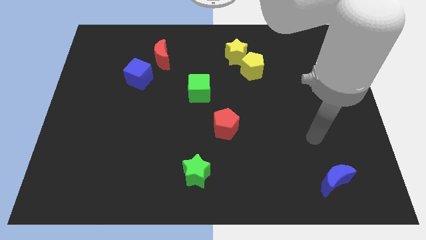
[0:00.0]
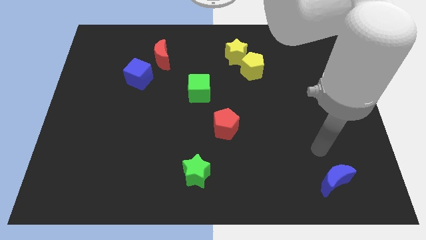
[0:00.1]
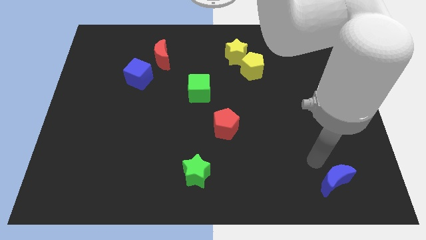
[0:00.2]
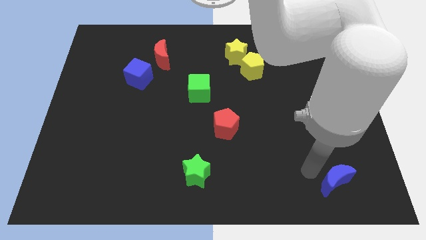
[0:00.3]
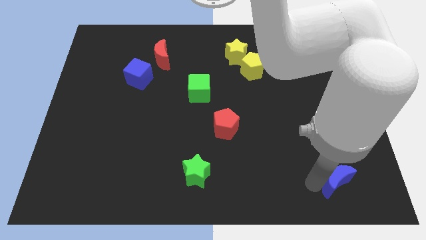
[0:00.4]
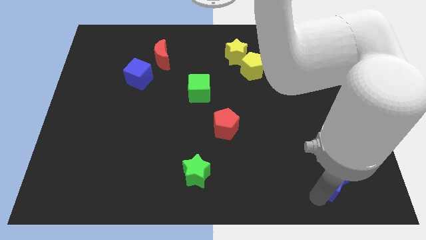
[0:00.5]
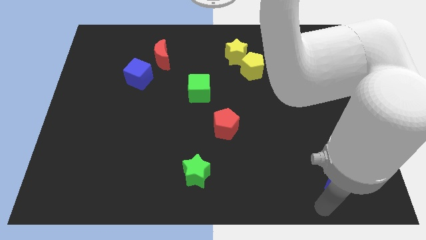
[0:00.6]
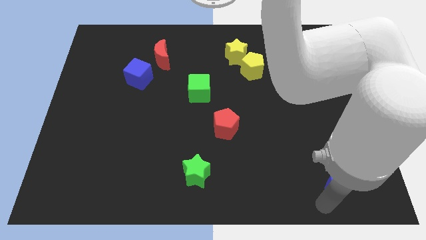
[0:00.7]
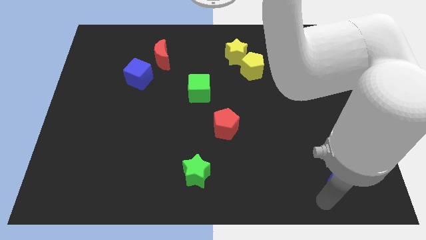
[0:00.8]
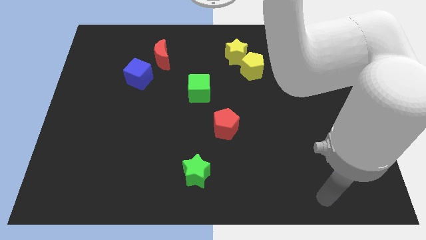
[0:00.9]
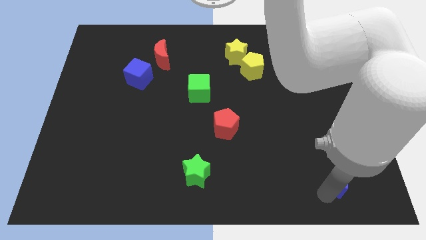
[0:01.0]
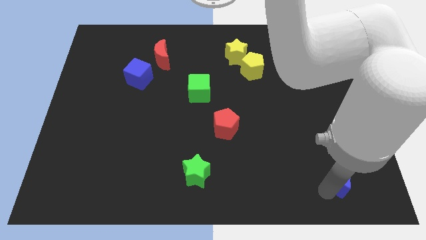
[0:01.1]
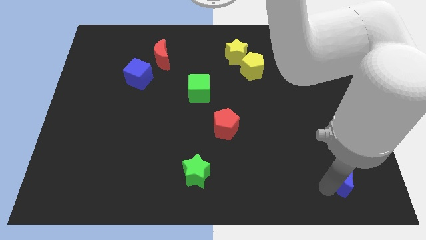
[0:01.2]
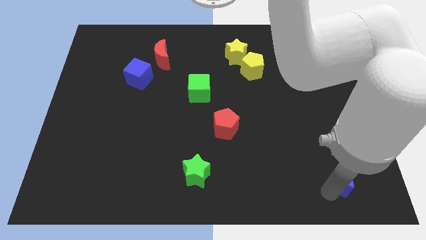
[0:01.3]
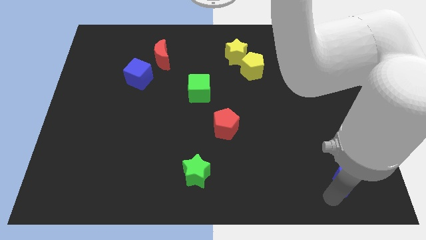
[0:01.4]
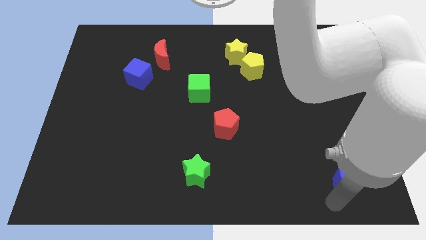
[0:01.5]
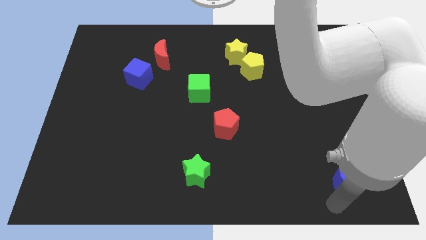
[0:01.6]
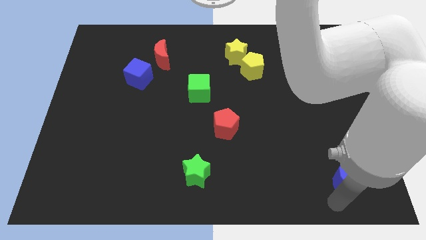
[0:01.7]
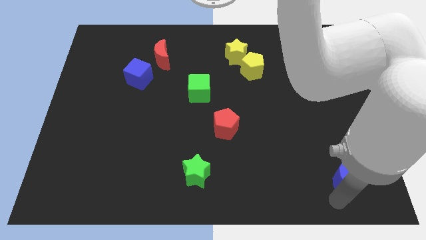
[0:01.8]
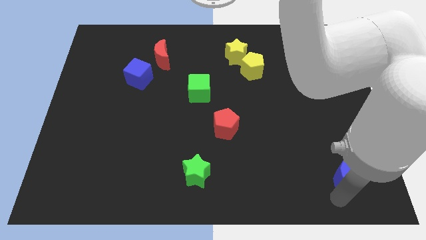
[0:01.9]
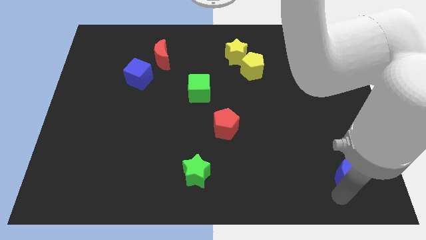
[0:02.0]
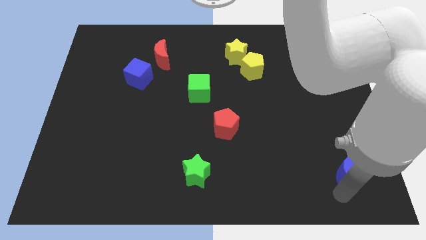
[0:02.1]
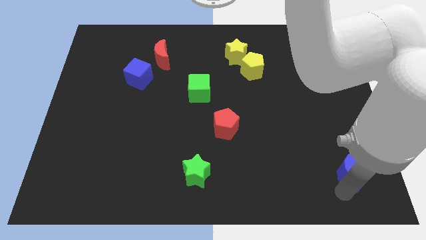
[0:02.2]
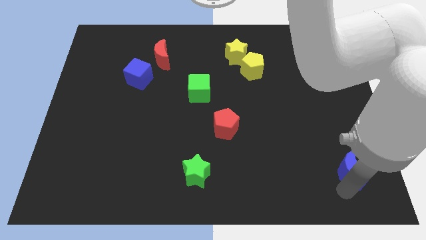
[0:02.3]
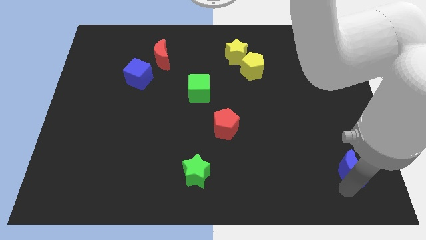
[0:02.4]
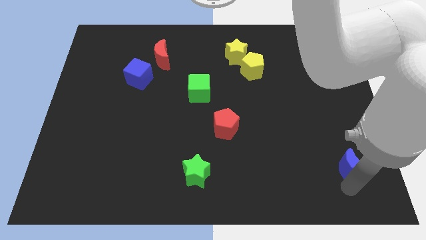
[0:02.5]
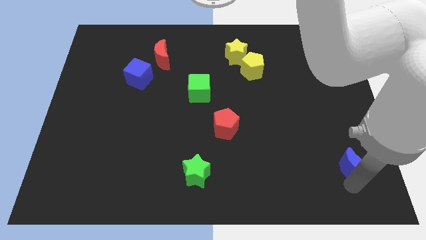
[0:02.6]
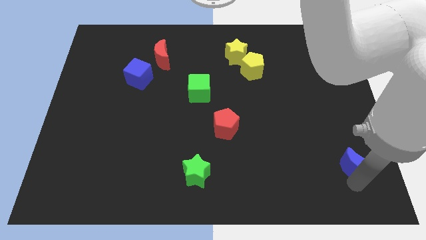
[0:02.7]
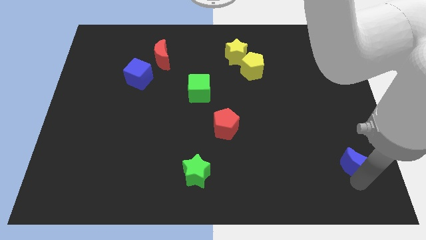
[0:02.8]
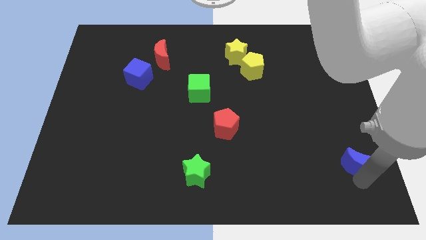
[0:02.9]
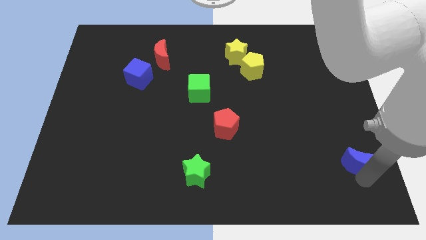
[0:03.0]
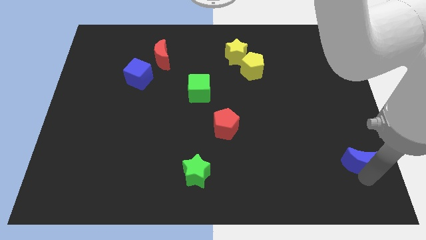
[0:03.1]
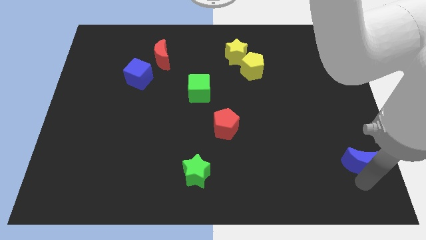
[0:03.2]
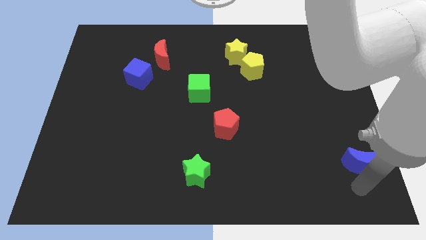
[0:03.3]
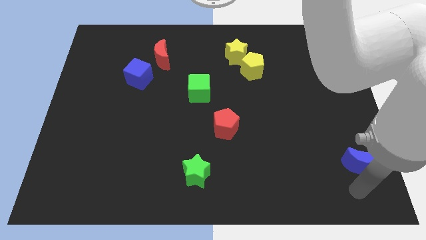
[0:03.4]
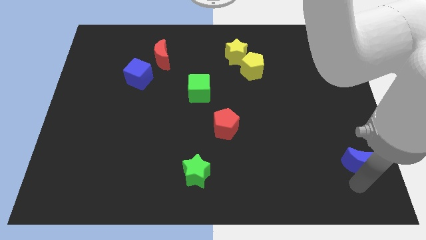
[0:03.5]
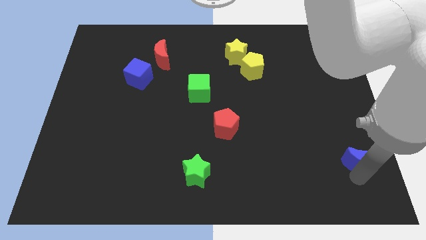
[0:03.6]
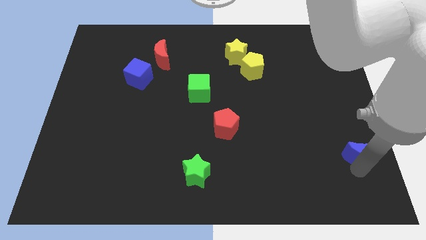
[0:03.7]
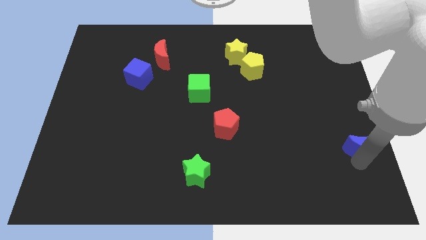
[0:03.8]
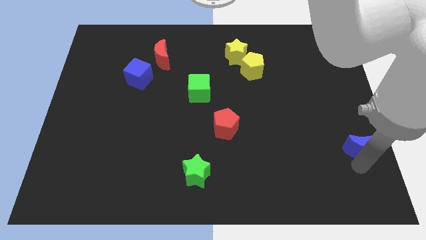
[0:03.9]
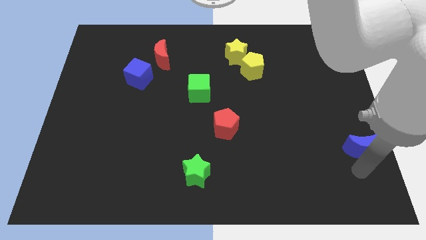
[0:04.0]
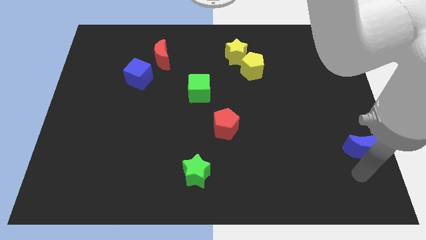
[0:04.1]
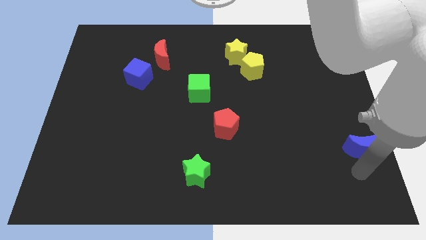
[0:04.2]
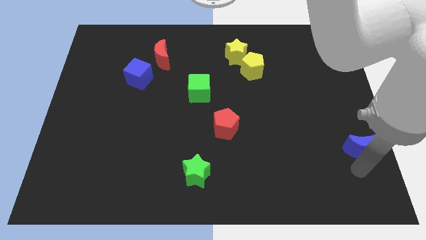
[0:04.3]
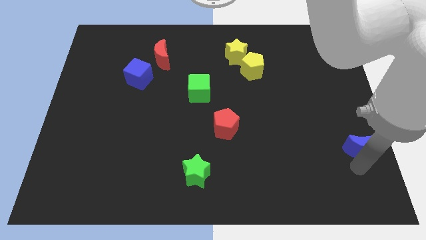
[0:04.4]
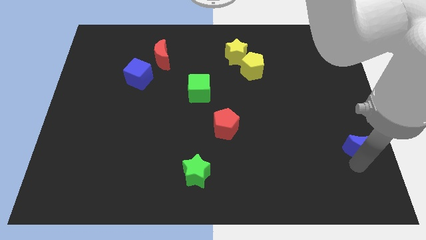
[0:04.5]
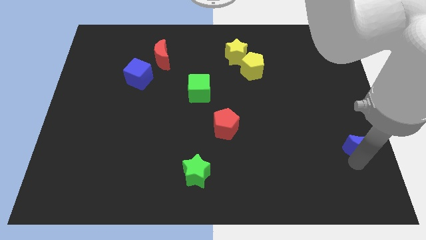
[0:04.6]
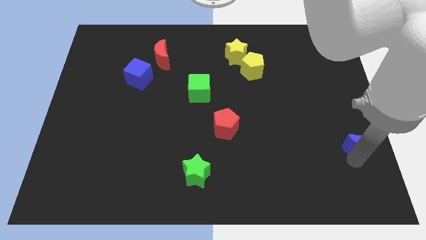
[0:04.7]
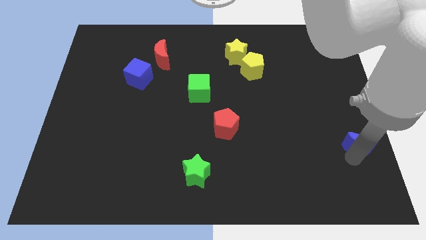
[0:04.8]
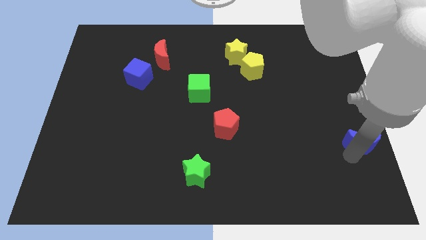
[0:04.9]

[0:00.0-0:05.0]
slide the blue moon to the right side

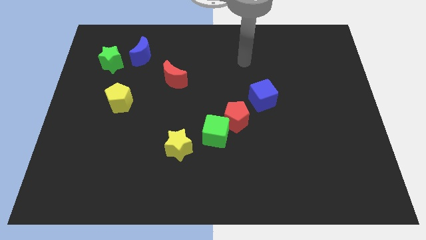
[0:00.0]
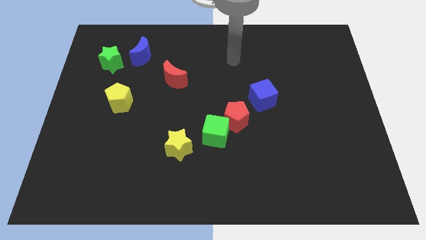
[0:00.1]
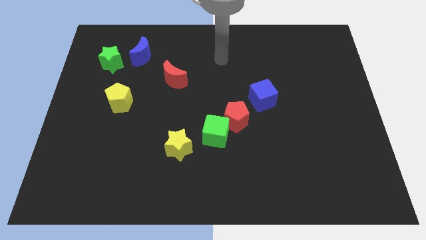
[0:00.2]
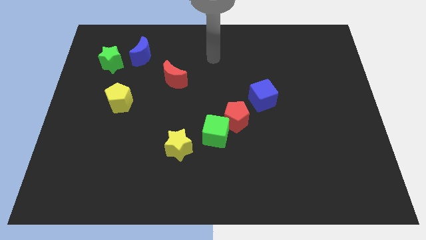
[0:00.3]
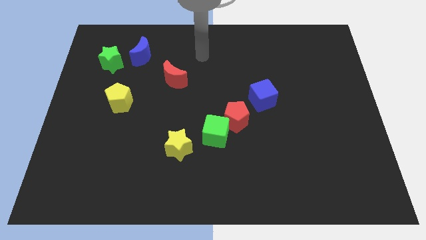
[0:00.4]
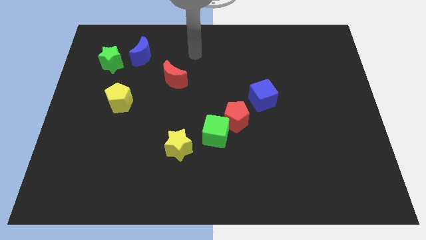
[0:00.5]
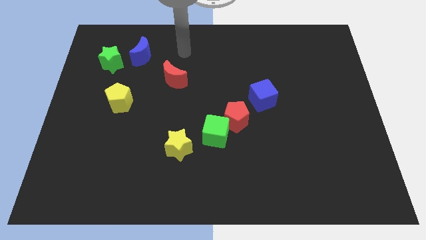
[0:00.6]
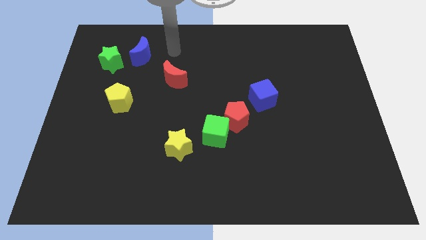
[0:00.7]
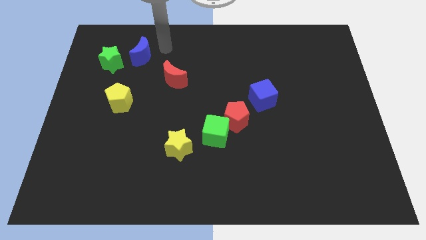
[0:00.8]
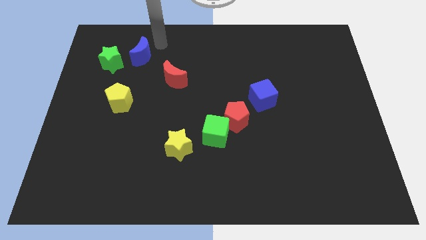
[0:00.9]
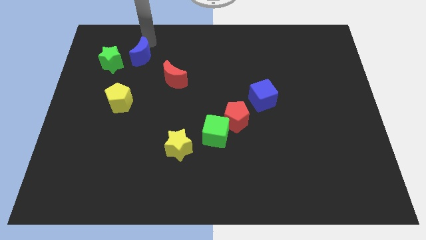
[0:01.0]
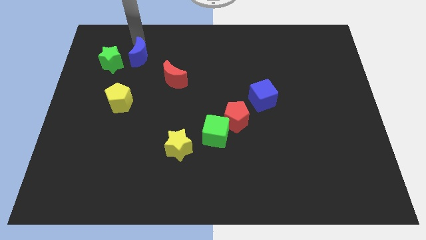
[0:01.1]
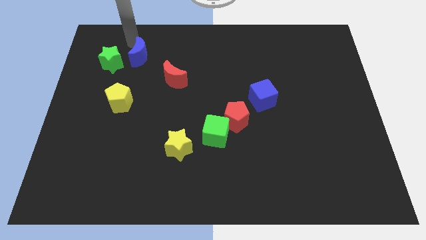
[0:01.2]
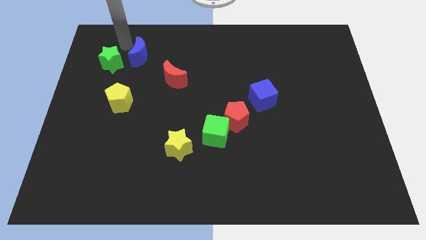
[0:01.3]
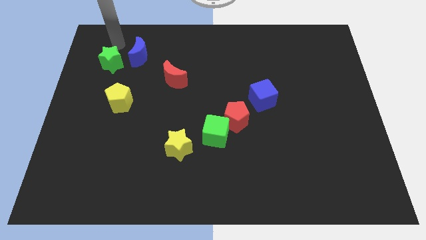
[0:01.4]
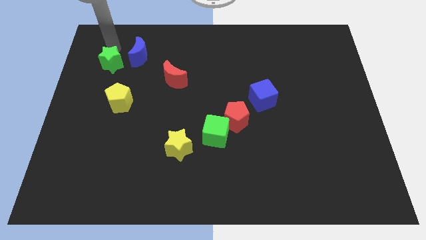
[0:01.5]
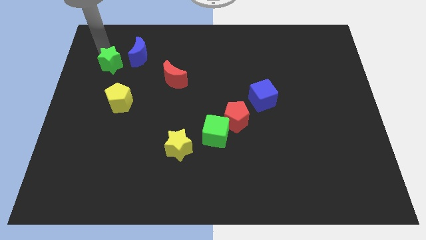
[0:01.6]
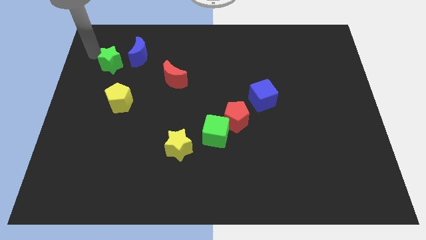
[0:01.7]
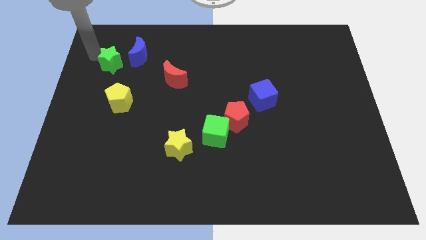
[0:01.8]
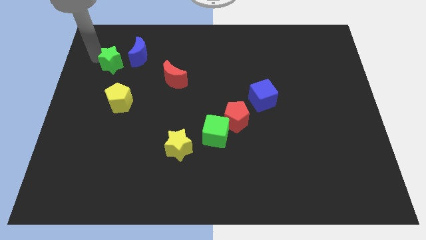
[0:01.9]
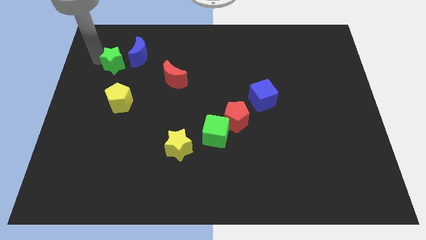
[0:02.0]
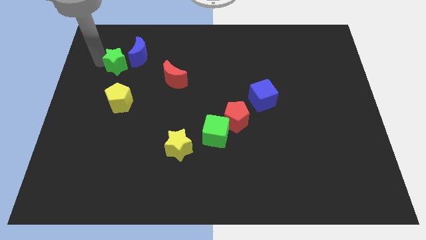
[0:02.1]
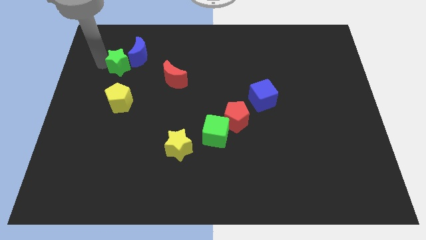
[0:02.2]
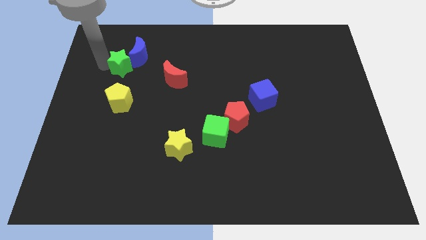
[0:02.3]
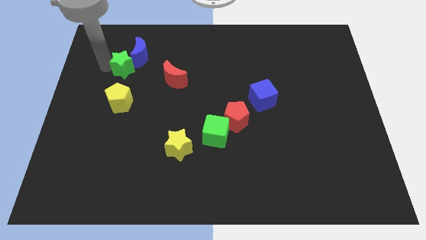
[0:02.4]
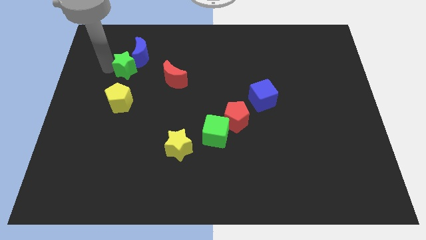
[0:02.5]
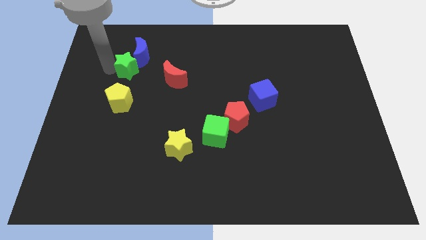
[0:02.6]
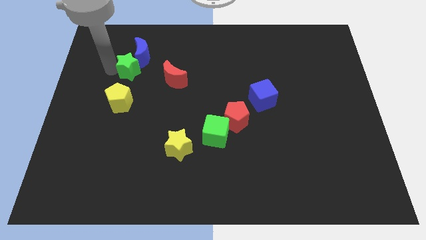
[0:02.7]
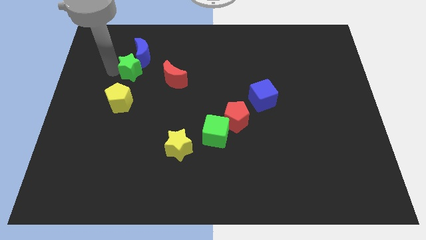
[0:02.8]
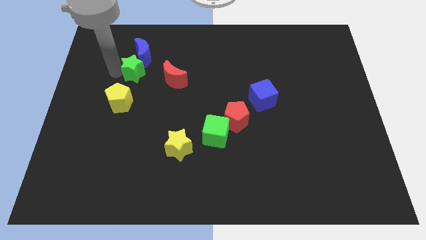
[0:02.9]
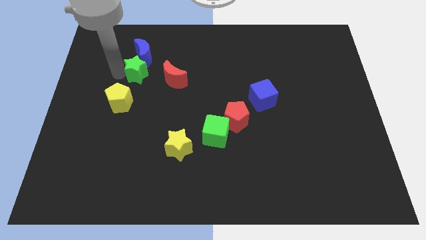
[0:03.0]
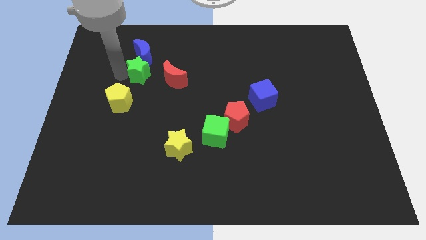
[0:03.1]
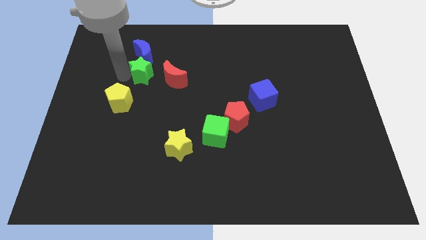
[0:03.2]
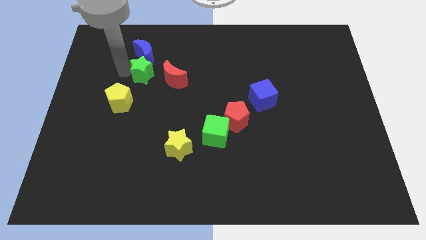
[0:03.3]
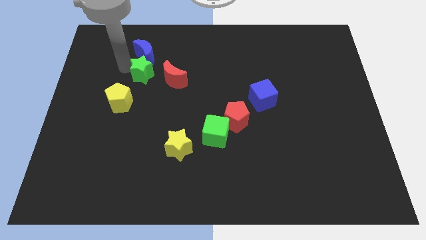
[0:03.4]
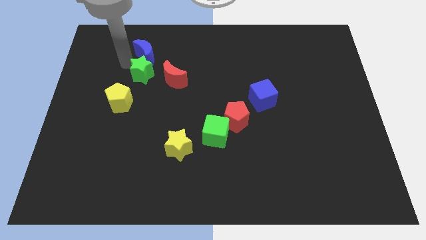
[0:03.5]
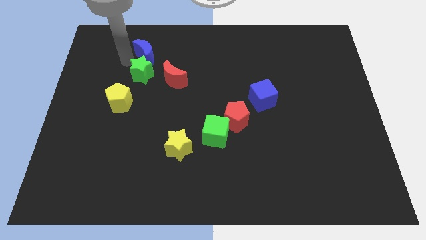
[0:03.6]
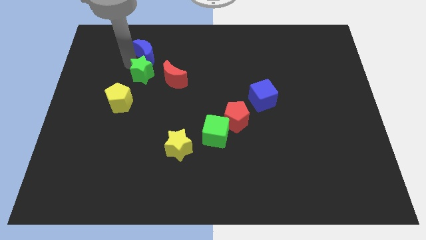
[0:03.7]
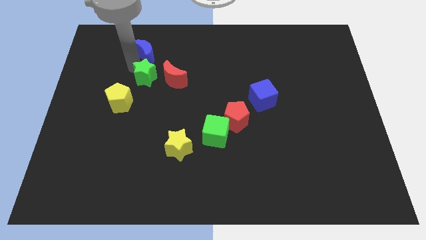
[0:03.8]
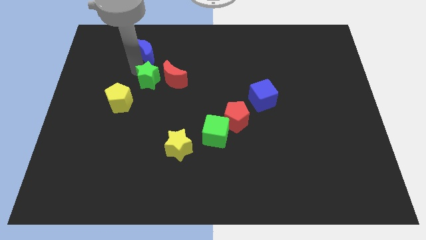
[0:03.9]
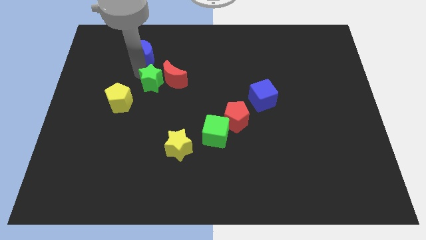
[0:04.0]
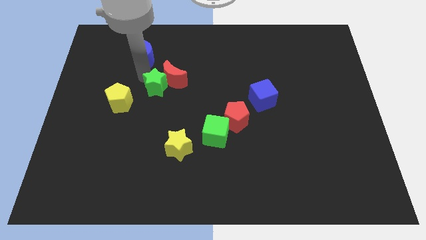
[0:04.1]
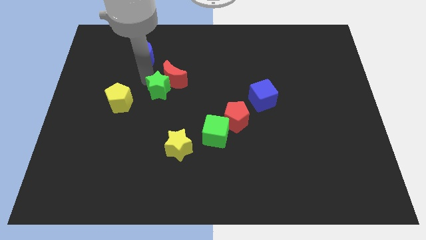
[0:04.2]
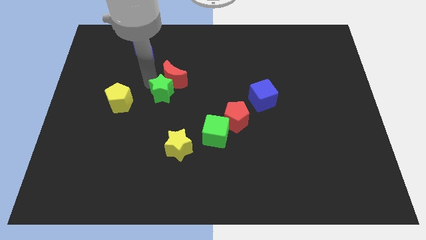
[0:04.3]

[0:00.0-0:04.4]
put the green star to the center
